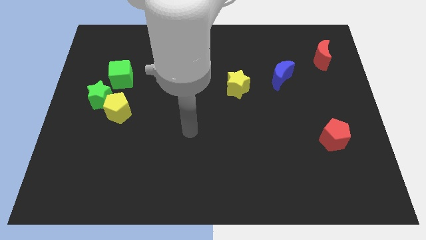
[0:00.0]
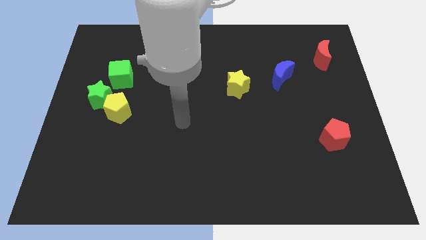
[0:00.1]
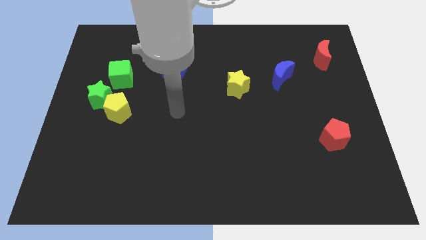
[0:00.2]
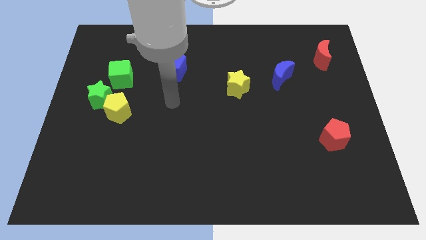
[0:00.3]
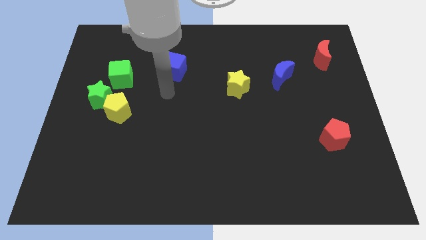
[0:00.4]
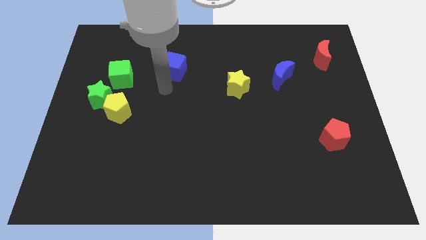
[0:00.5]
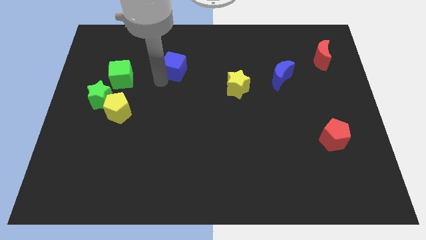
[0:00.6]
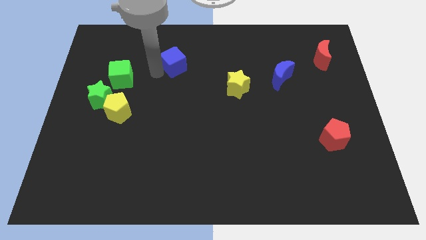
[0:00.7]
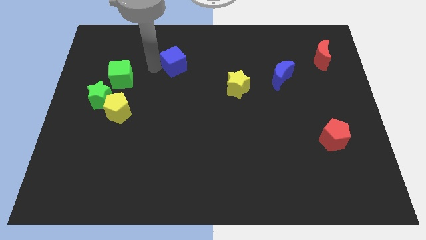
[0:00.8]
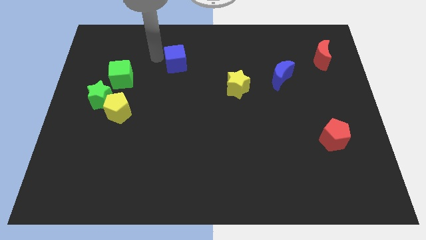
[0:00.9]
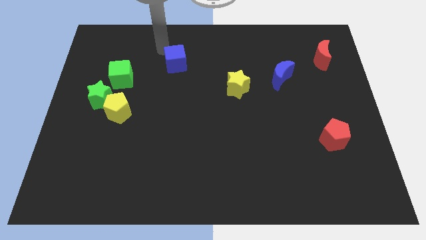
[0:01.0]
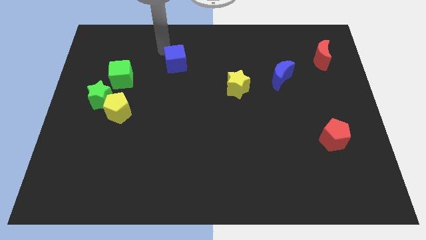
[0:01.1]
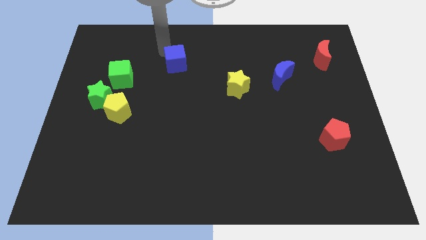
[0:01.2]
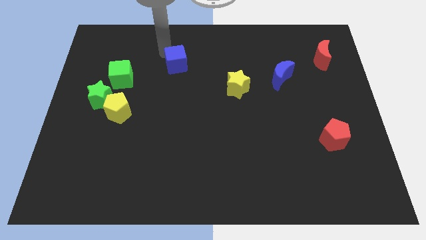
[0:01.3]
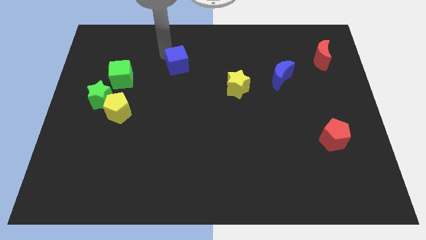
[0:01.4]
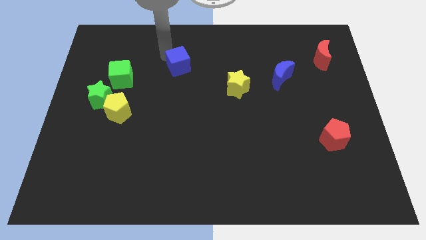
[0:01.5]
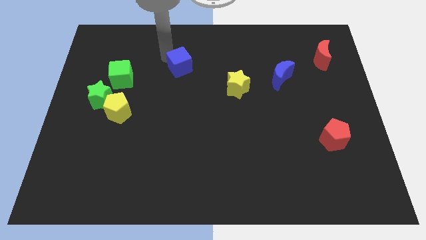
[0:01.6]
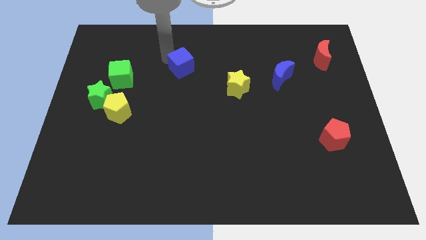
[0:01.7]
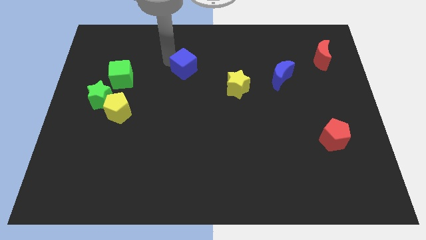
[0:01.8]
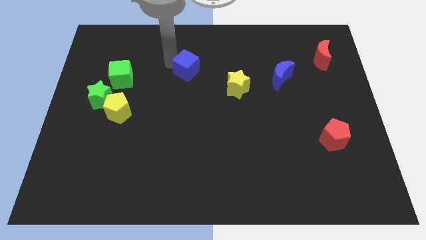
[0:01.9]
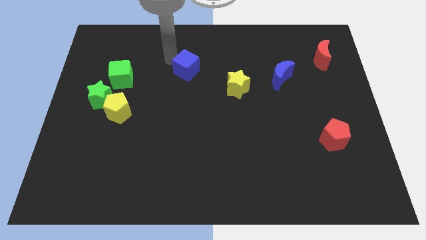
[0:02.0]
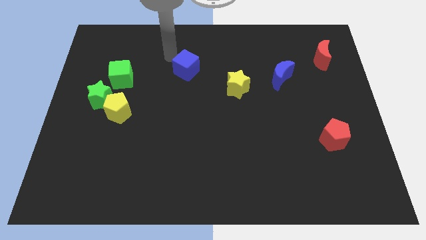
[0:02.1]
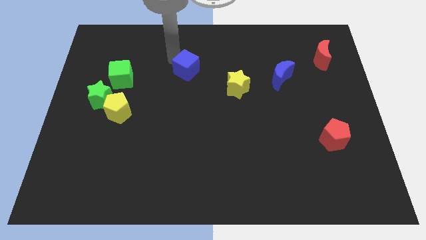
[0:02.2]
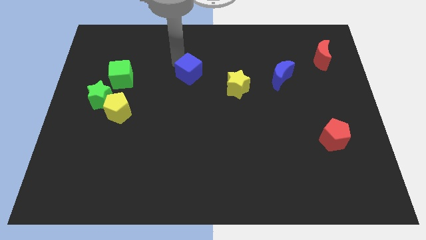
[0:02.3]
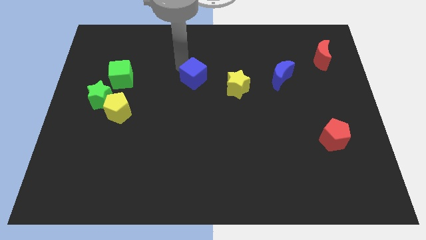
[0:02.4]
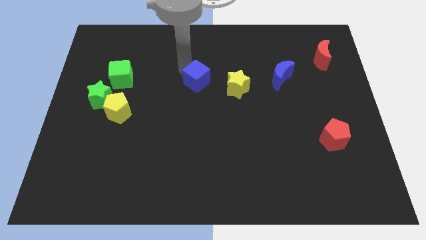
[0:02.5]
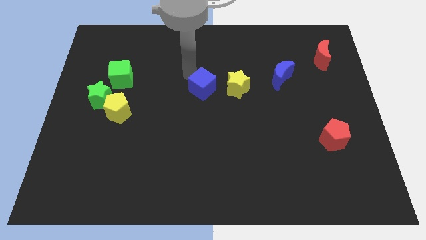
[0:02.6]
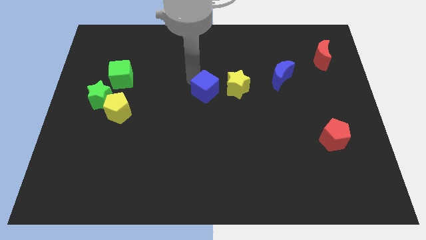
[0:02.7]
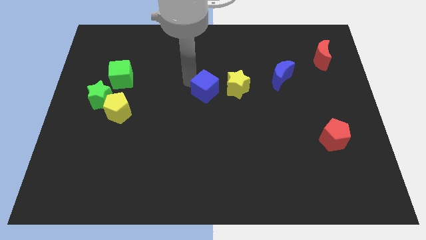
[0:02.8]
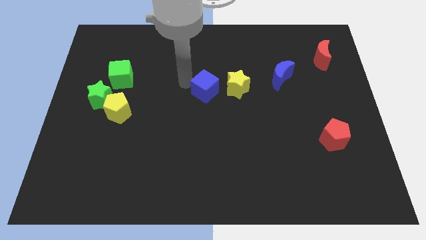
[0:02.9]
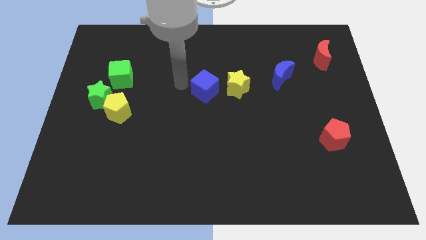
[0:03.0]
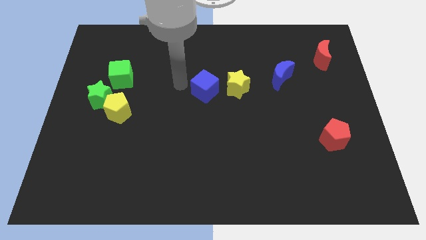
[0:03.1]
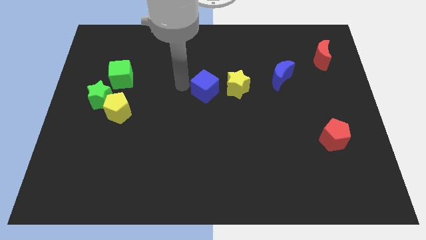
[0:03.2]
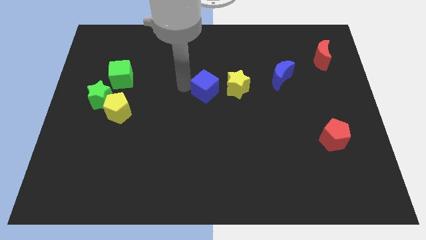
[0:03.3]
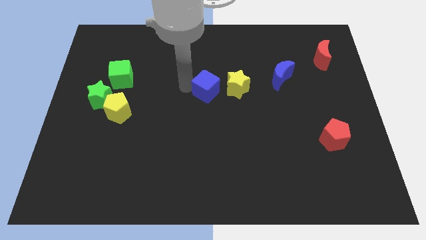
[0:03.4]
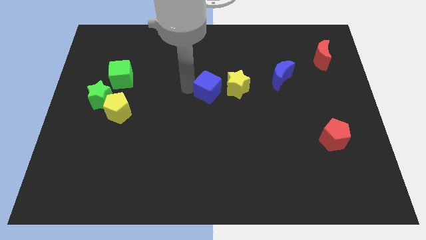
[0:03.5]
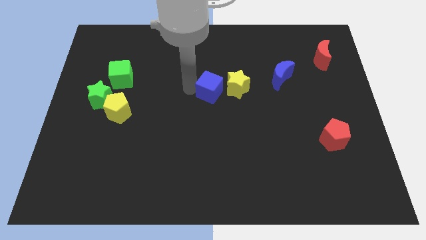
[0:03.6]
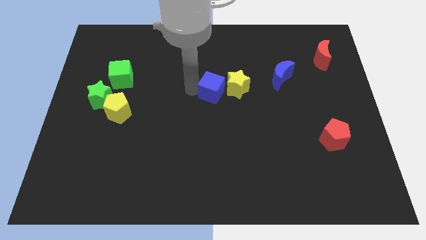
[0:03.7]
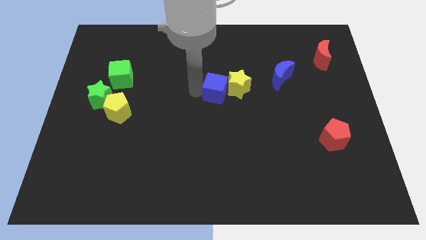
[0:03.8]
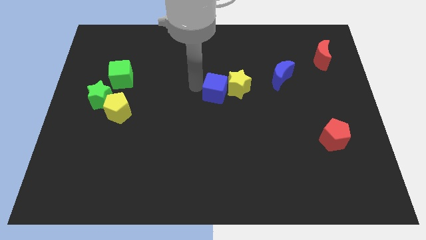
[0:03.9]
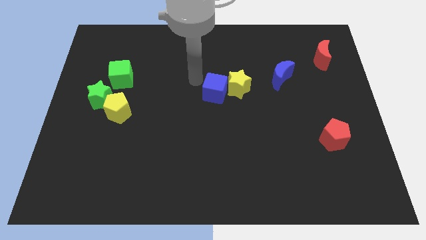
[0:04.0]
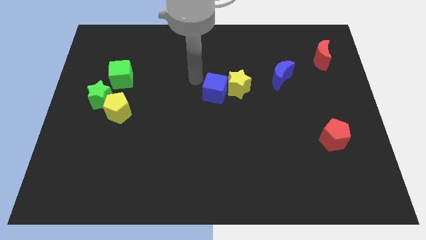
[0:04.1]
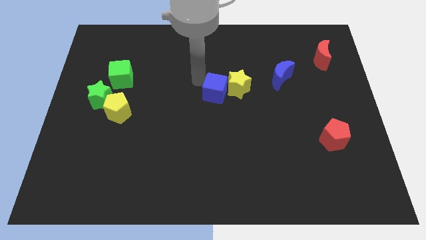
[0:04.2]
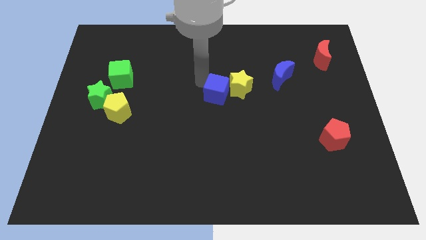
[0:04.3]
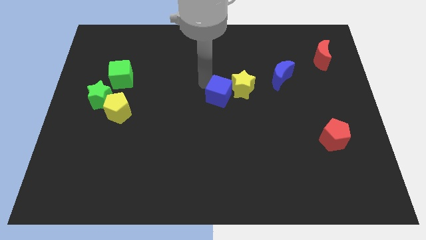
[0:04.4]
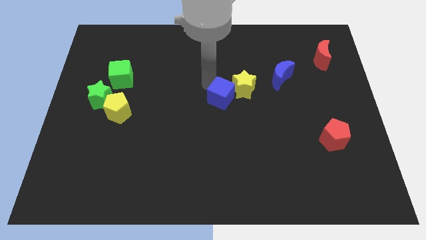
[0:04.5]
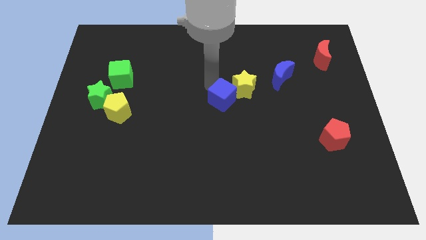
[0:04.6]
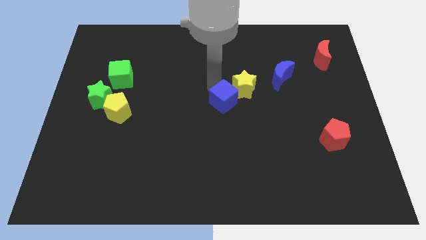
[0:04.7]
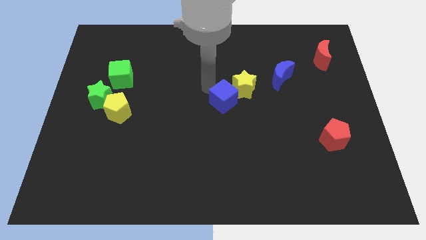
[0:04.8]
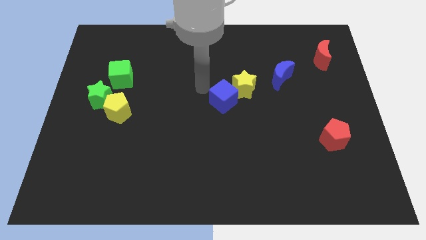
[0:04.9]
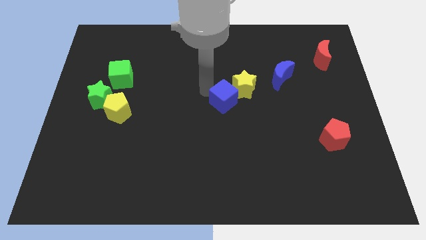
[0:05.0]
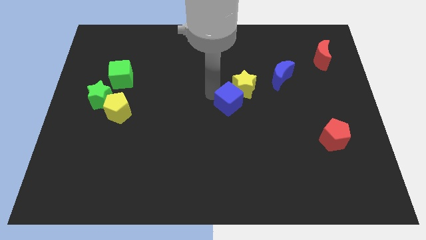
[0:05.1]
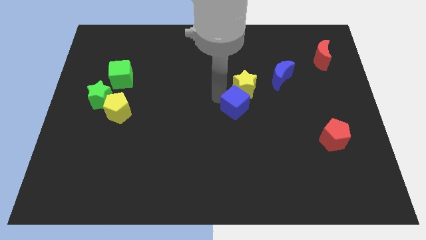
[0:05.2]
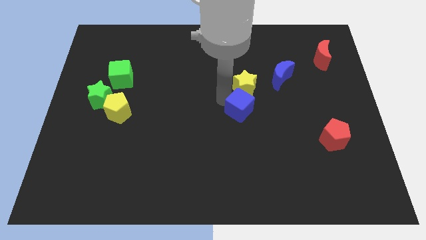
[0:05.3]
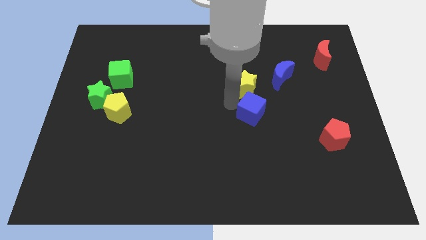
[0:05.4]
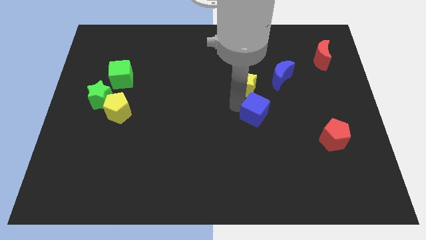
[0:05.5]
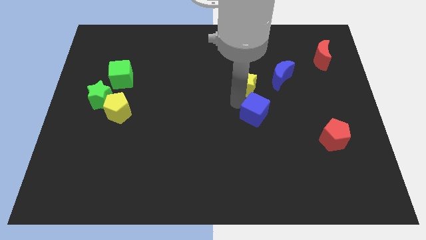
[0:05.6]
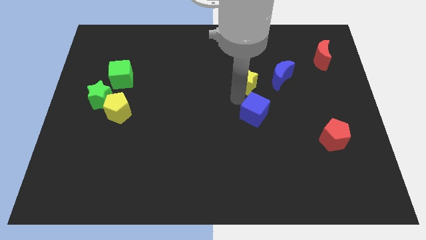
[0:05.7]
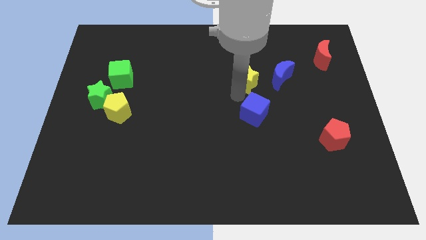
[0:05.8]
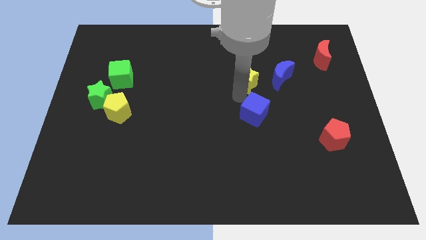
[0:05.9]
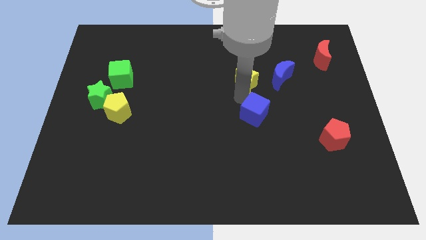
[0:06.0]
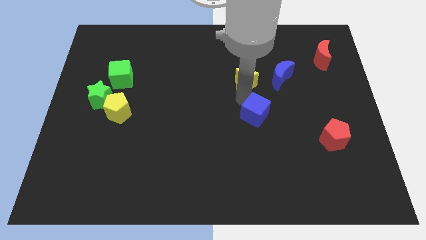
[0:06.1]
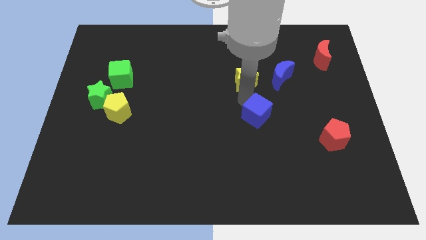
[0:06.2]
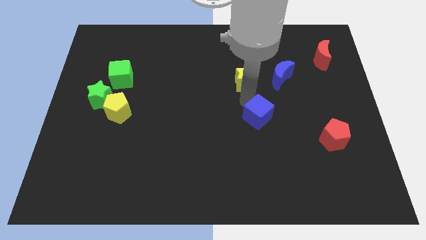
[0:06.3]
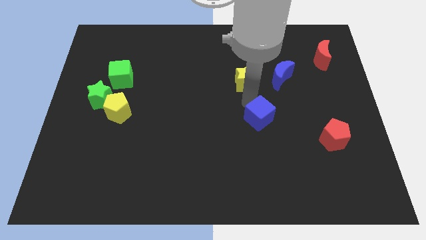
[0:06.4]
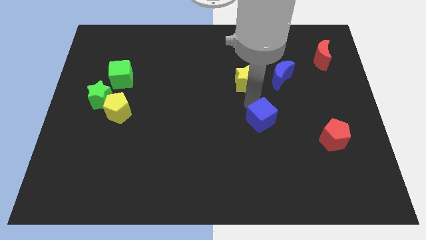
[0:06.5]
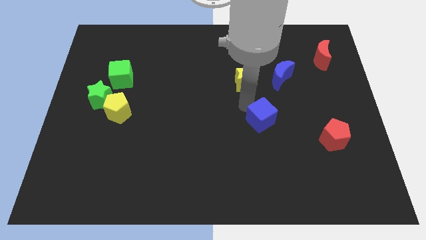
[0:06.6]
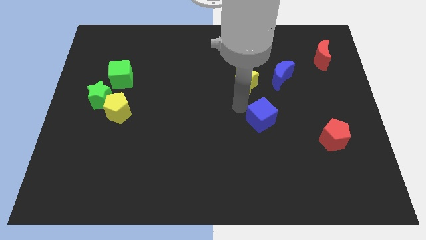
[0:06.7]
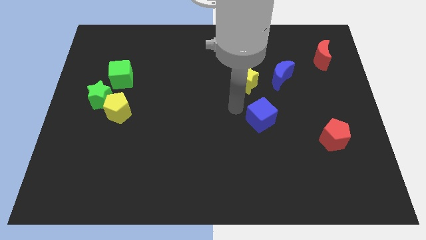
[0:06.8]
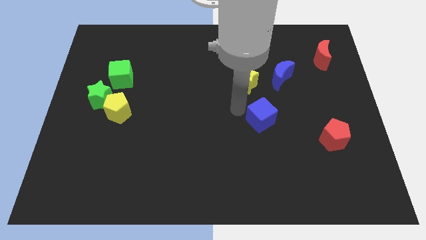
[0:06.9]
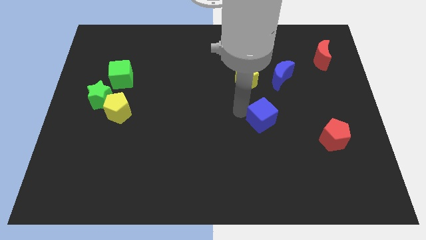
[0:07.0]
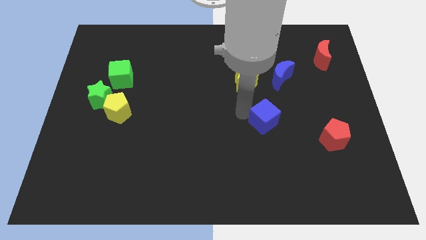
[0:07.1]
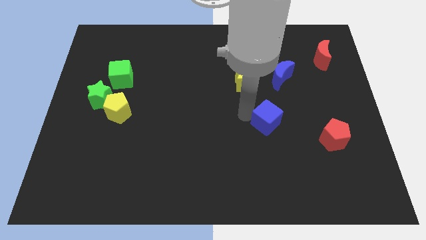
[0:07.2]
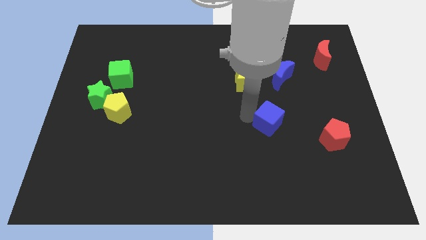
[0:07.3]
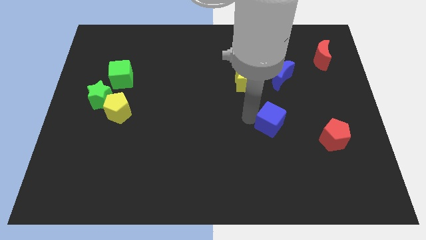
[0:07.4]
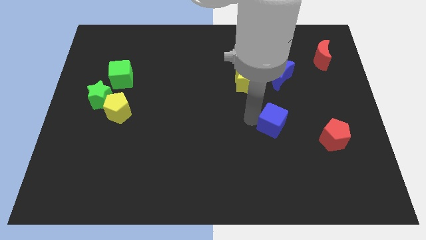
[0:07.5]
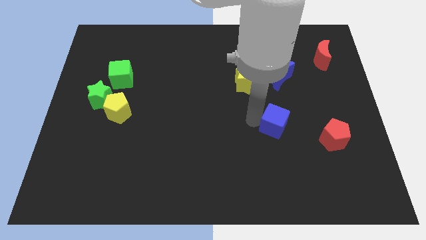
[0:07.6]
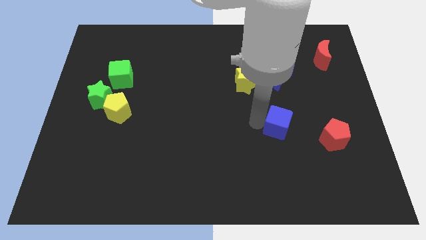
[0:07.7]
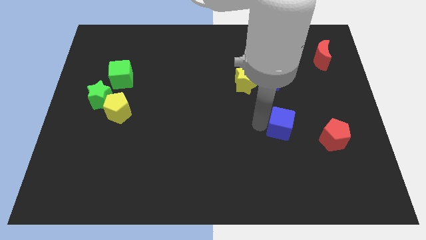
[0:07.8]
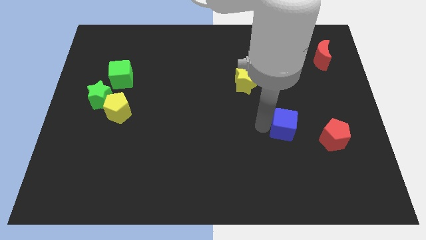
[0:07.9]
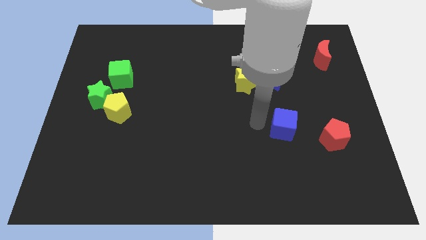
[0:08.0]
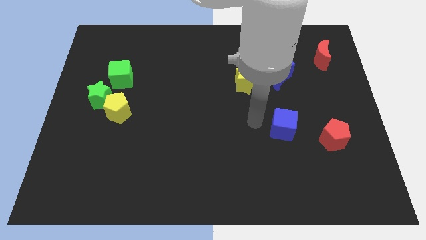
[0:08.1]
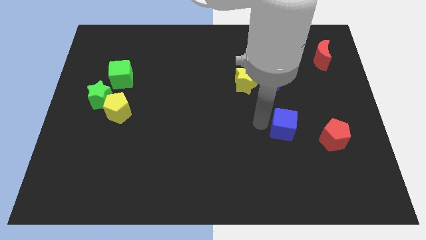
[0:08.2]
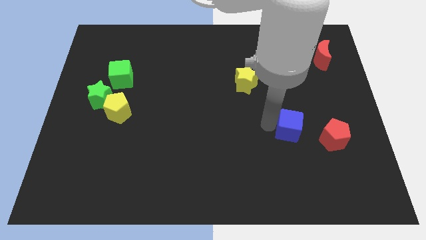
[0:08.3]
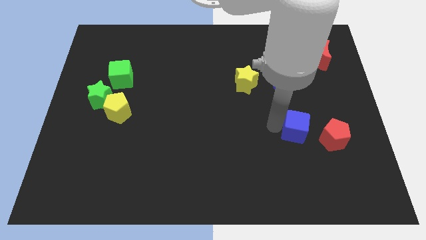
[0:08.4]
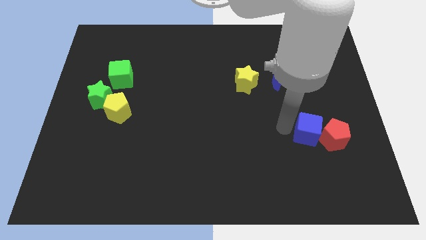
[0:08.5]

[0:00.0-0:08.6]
push the blue cube to the red pentagon
